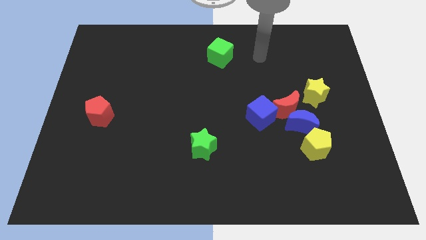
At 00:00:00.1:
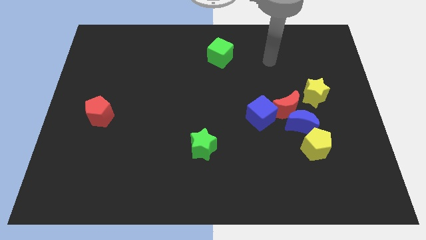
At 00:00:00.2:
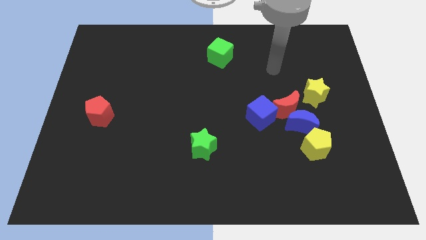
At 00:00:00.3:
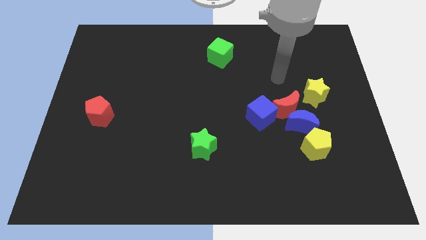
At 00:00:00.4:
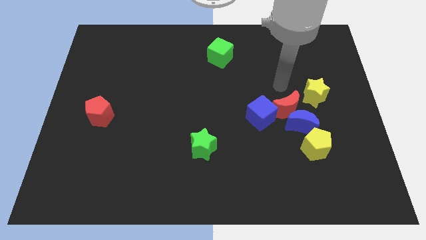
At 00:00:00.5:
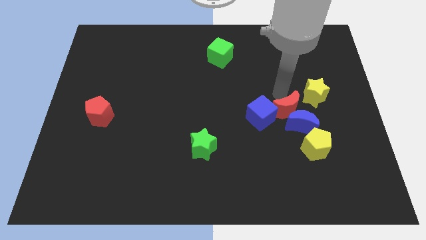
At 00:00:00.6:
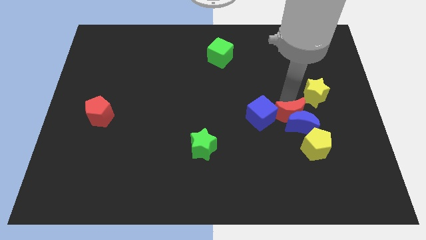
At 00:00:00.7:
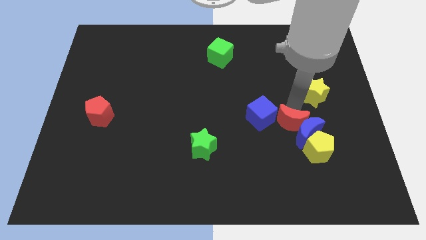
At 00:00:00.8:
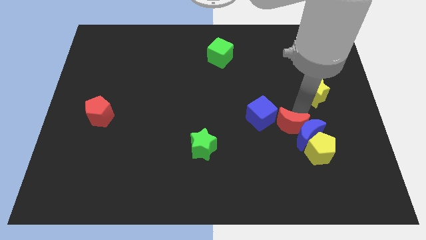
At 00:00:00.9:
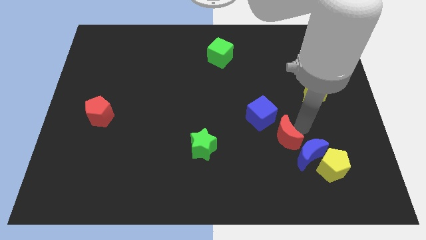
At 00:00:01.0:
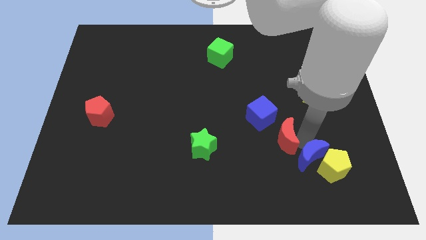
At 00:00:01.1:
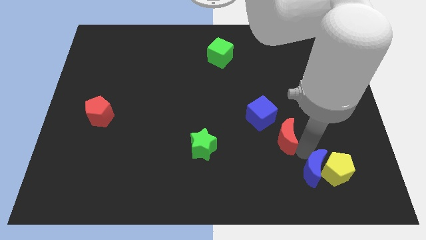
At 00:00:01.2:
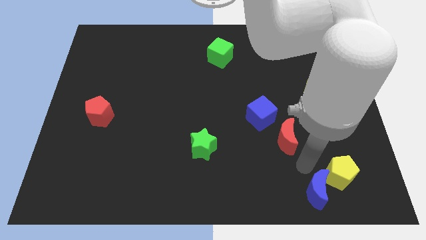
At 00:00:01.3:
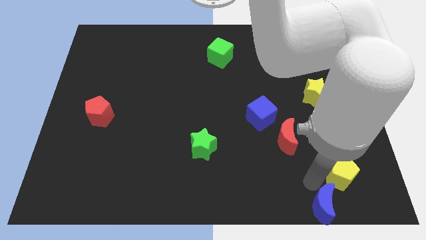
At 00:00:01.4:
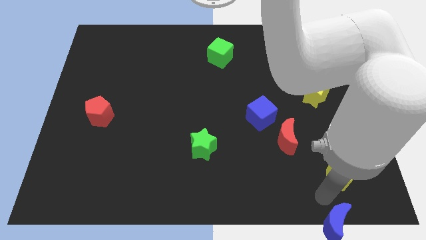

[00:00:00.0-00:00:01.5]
separate the yellow pentagon from the blue moon

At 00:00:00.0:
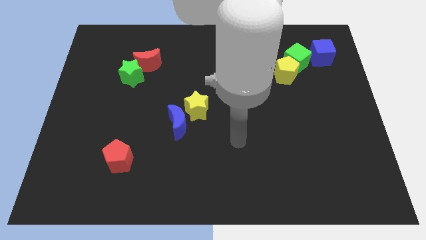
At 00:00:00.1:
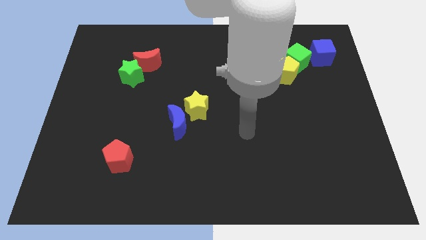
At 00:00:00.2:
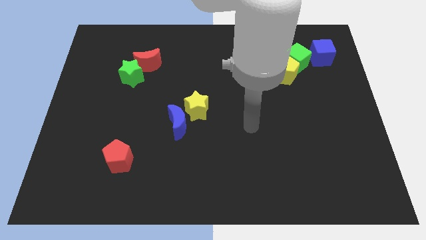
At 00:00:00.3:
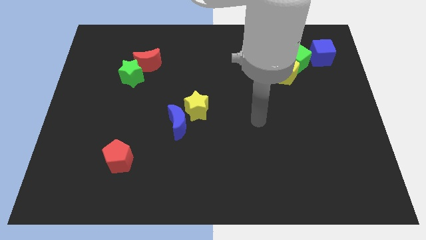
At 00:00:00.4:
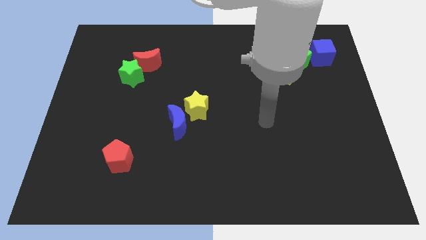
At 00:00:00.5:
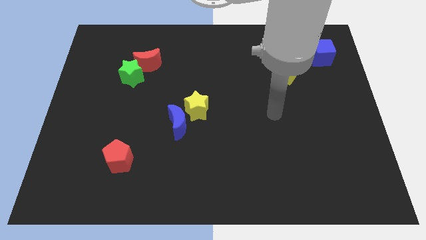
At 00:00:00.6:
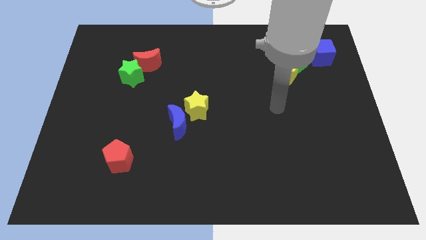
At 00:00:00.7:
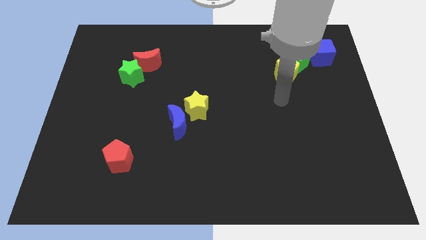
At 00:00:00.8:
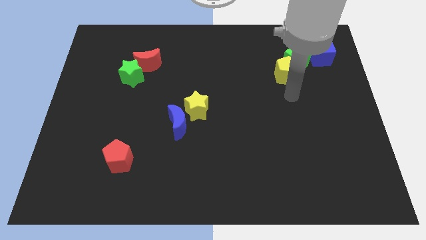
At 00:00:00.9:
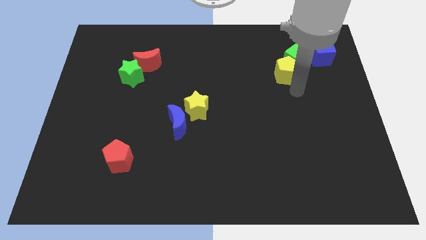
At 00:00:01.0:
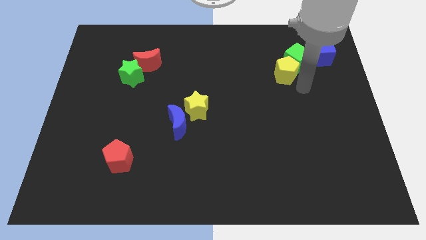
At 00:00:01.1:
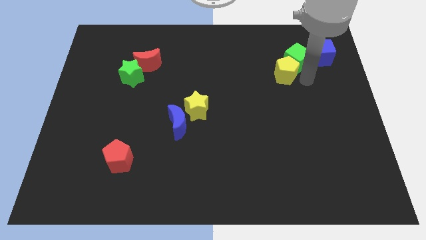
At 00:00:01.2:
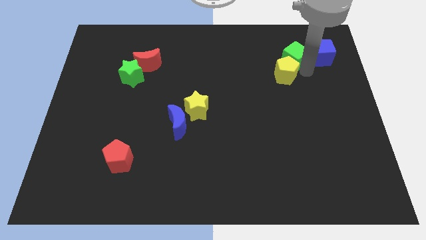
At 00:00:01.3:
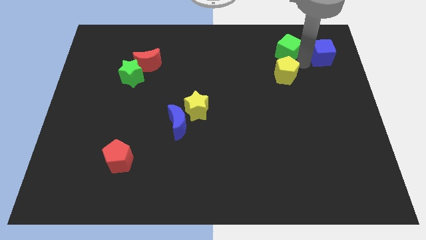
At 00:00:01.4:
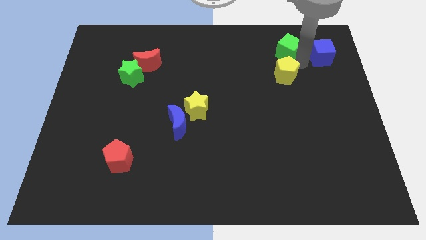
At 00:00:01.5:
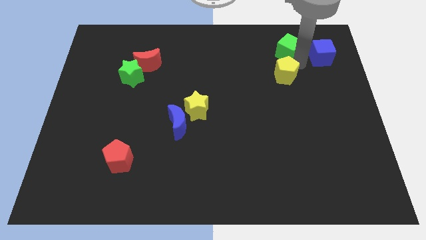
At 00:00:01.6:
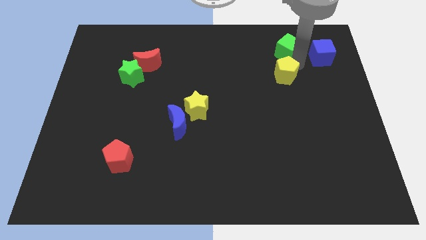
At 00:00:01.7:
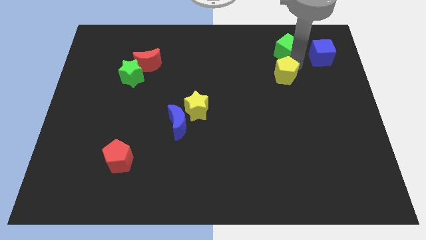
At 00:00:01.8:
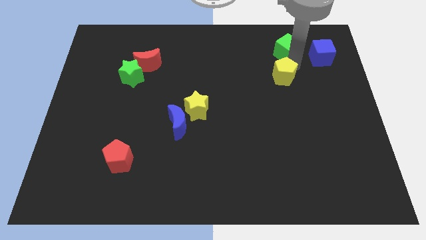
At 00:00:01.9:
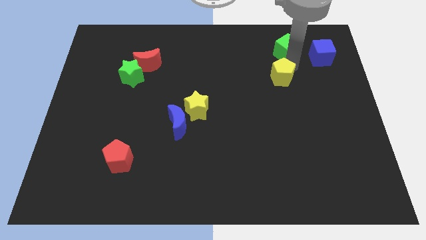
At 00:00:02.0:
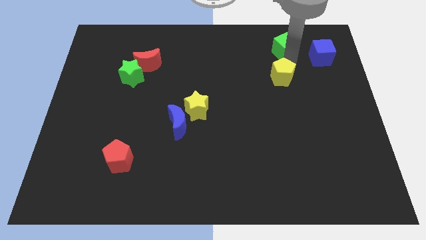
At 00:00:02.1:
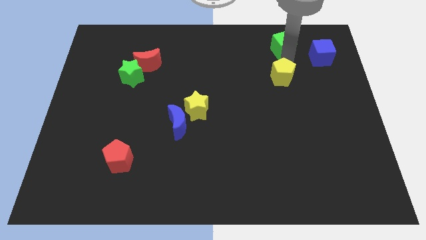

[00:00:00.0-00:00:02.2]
move the yellow pentagon away from the green cube

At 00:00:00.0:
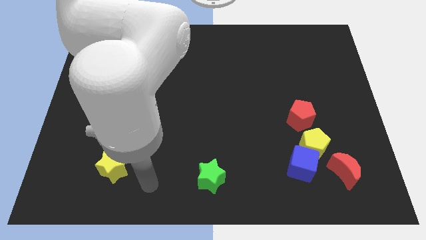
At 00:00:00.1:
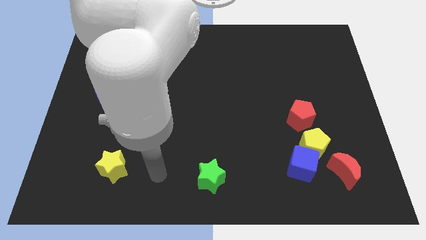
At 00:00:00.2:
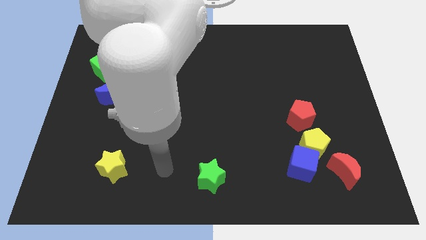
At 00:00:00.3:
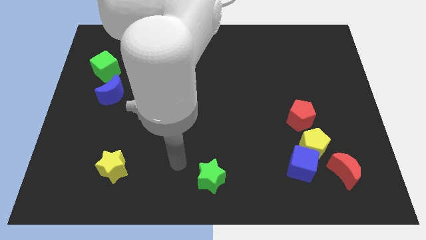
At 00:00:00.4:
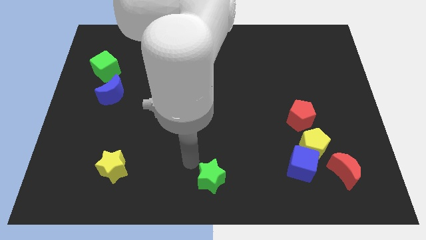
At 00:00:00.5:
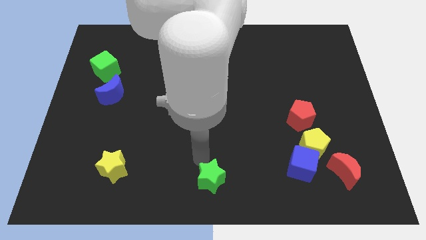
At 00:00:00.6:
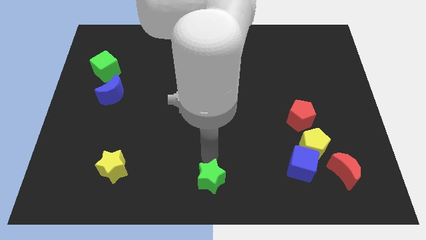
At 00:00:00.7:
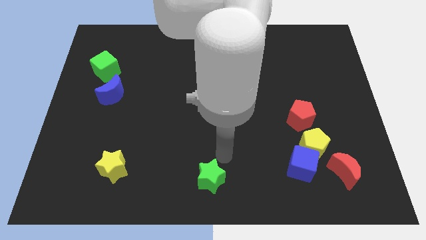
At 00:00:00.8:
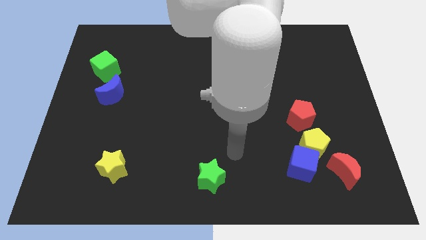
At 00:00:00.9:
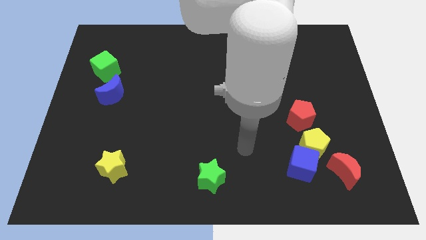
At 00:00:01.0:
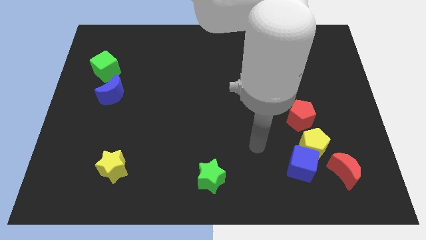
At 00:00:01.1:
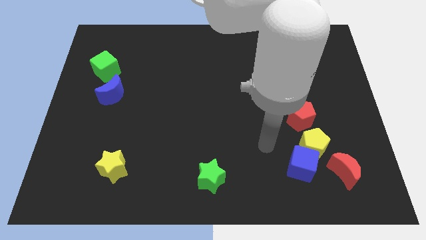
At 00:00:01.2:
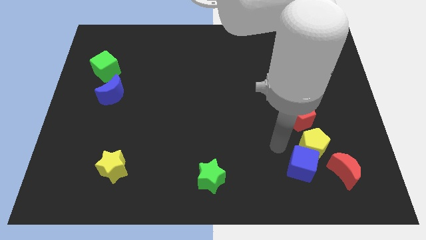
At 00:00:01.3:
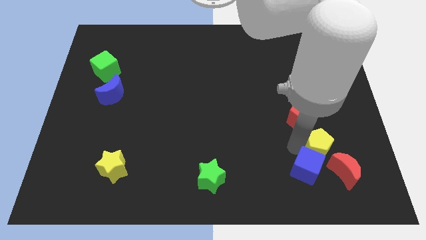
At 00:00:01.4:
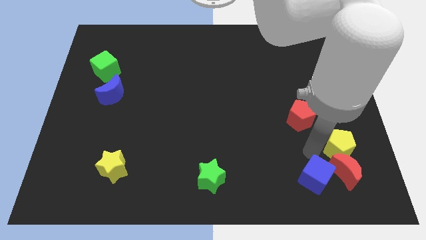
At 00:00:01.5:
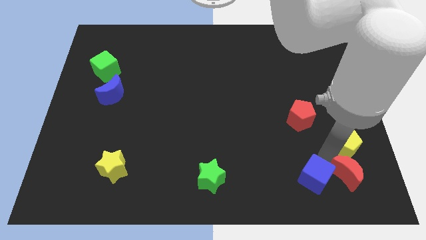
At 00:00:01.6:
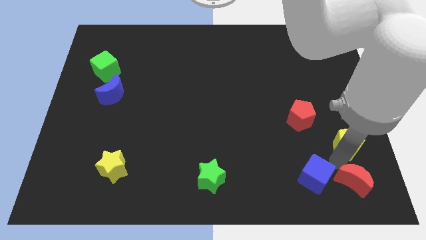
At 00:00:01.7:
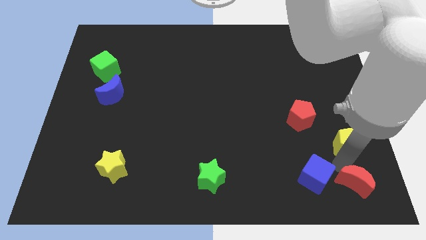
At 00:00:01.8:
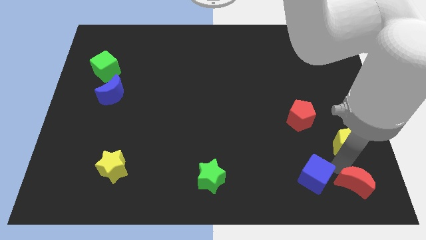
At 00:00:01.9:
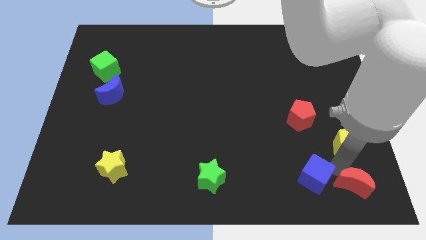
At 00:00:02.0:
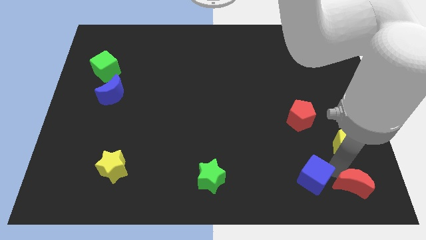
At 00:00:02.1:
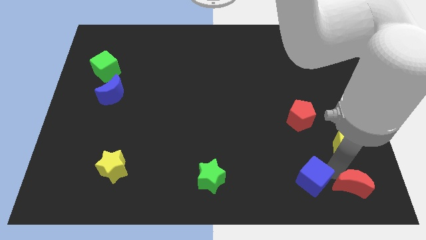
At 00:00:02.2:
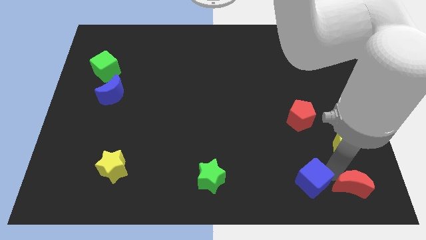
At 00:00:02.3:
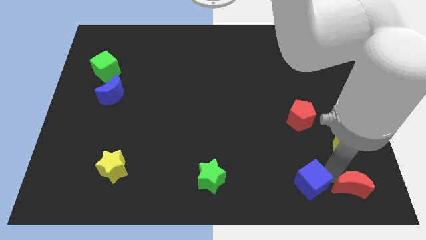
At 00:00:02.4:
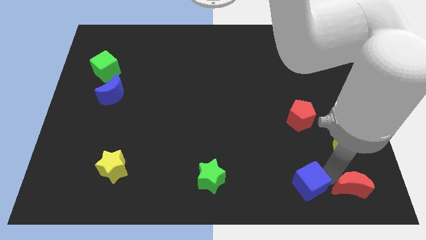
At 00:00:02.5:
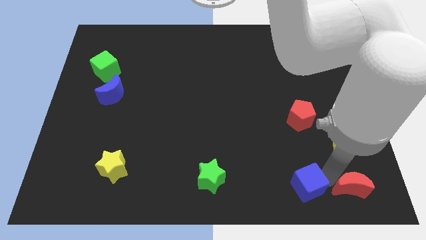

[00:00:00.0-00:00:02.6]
move the blue cube away from the yellow pentagon and red moon

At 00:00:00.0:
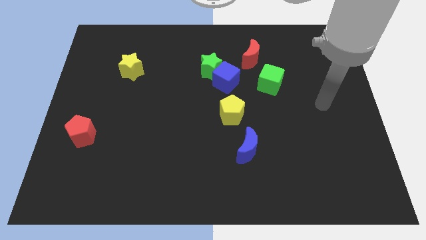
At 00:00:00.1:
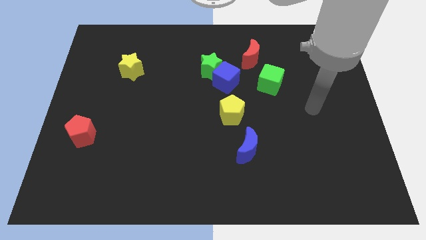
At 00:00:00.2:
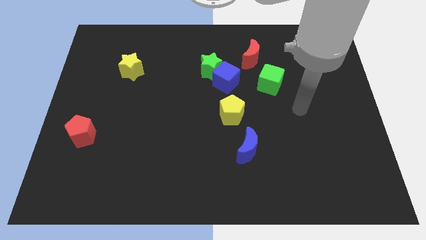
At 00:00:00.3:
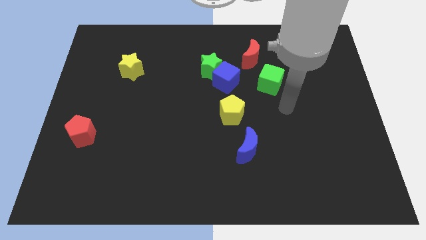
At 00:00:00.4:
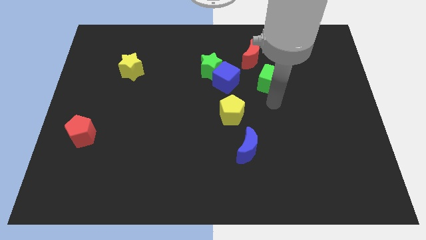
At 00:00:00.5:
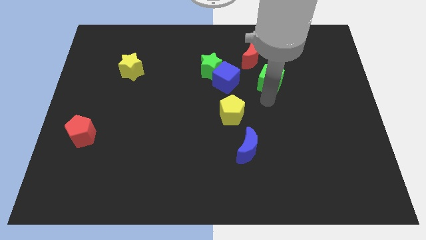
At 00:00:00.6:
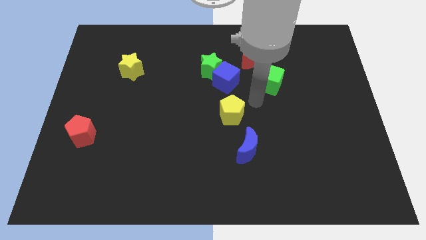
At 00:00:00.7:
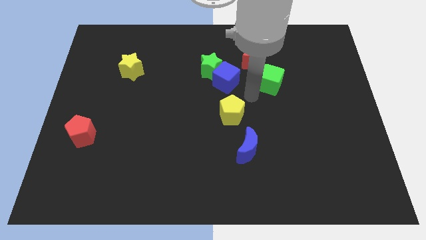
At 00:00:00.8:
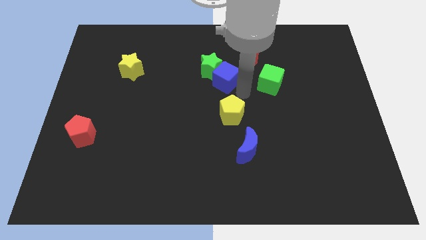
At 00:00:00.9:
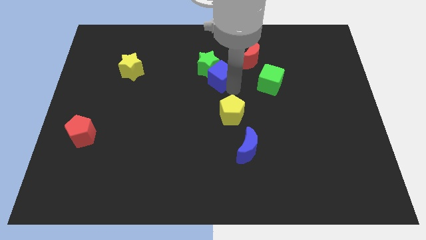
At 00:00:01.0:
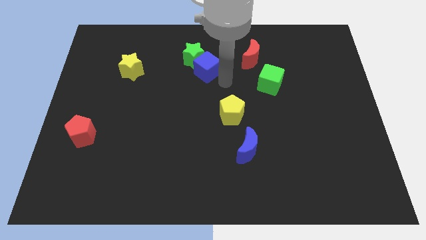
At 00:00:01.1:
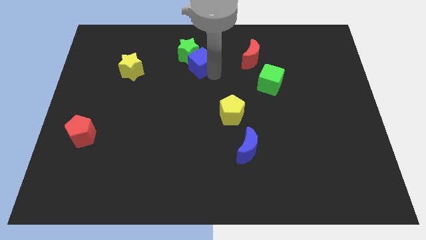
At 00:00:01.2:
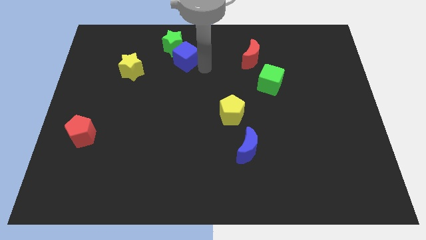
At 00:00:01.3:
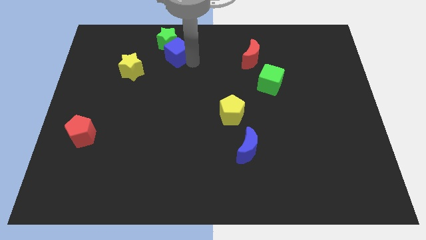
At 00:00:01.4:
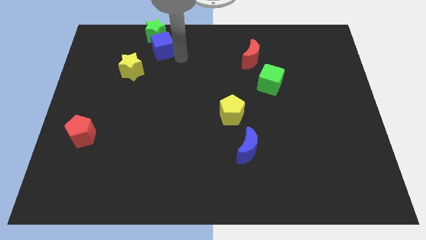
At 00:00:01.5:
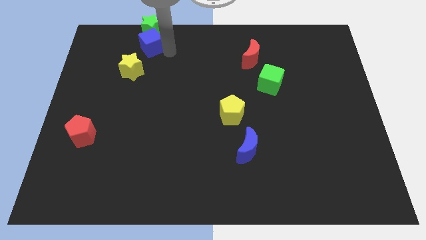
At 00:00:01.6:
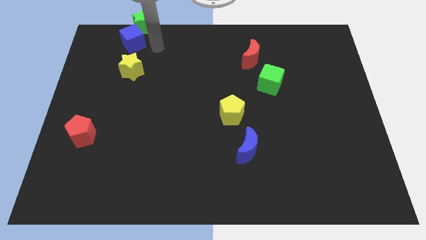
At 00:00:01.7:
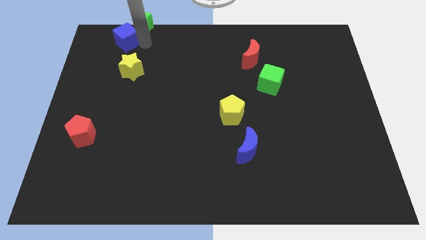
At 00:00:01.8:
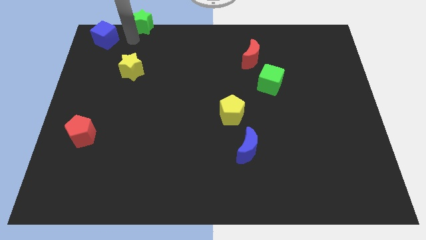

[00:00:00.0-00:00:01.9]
move the green star away from the blue cube

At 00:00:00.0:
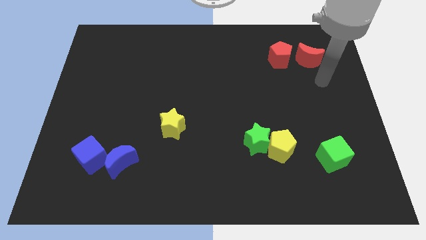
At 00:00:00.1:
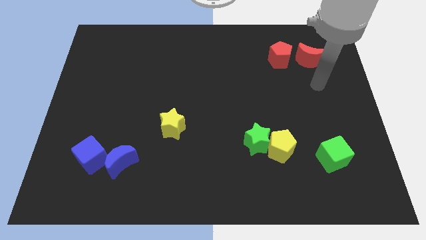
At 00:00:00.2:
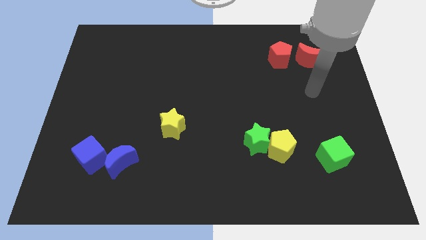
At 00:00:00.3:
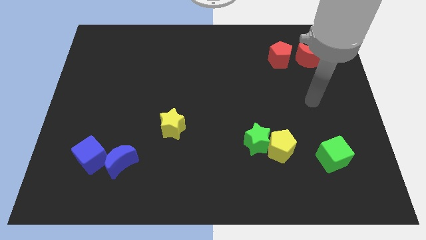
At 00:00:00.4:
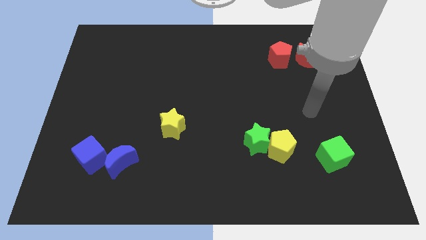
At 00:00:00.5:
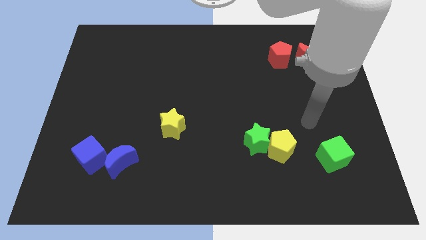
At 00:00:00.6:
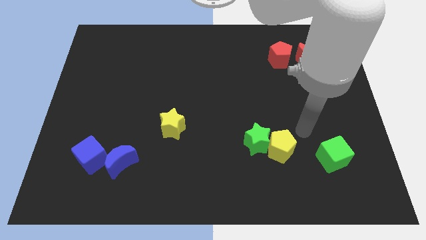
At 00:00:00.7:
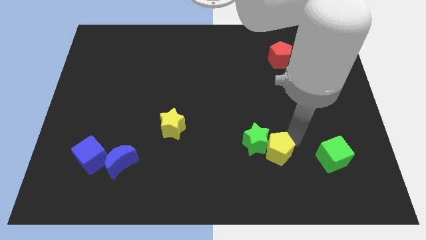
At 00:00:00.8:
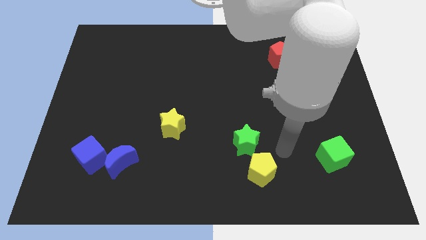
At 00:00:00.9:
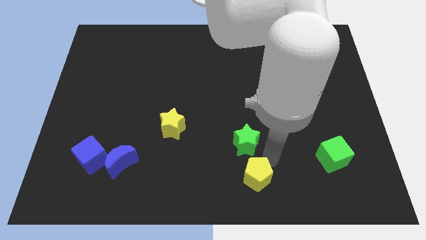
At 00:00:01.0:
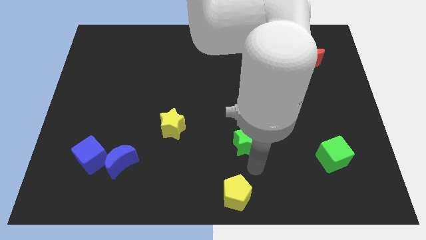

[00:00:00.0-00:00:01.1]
pull the green star apart from the yellow pentagon
